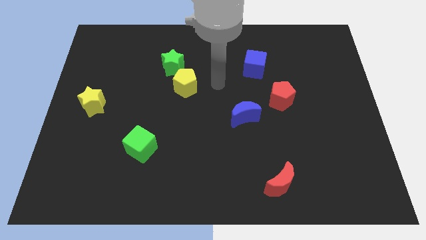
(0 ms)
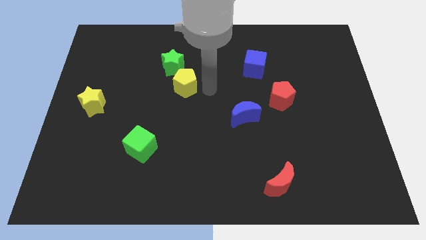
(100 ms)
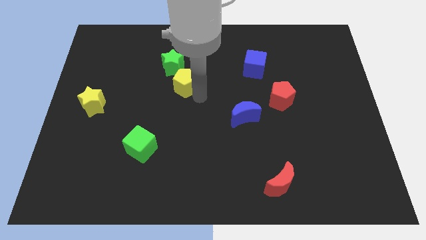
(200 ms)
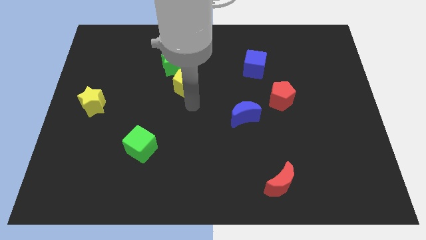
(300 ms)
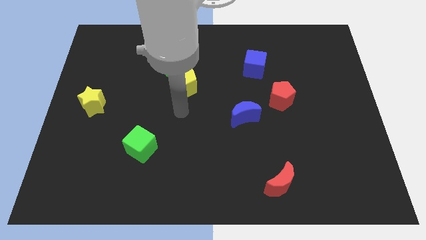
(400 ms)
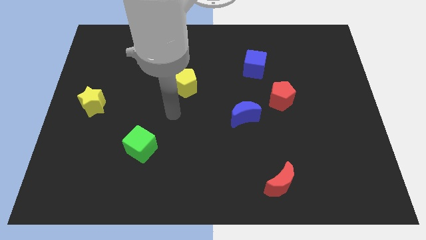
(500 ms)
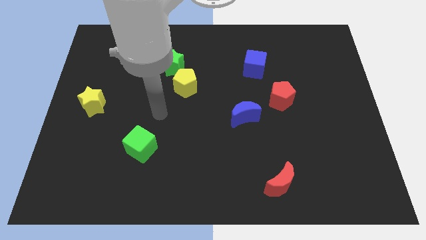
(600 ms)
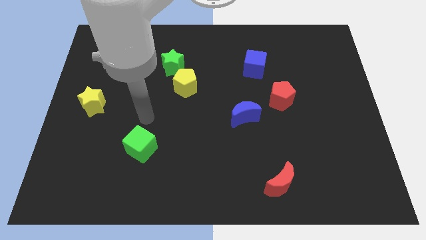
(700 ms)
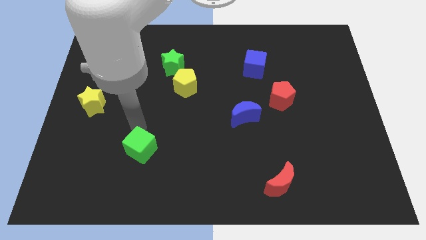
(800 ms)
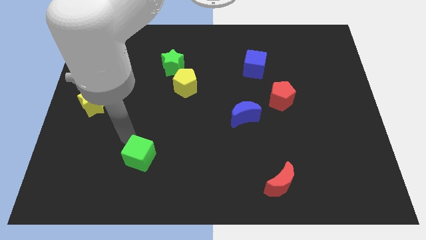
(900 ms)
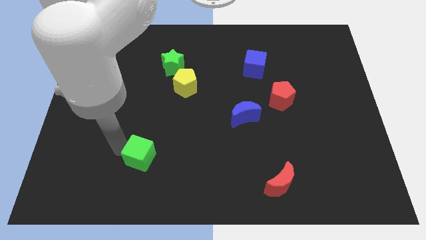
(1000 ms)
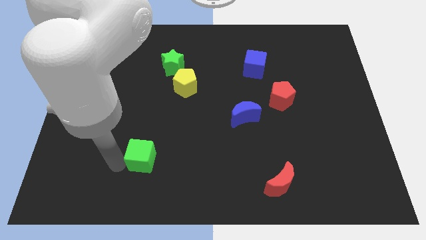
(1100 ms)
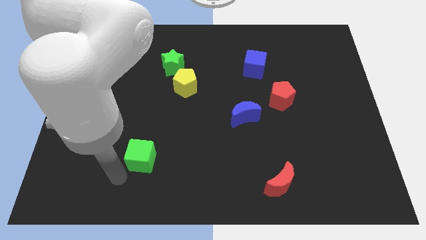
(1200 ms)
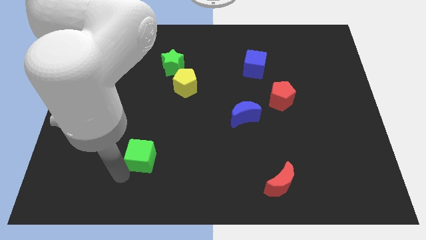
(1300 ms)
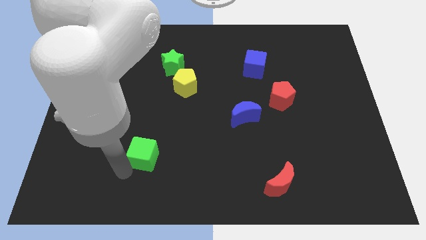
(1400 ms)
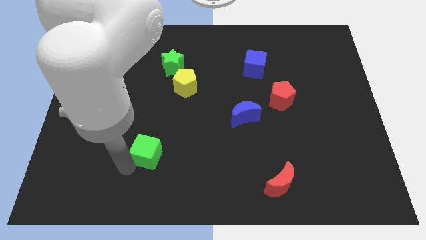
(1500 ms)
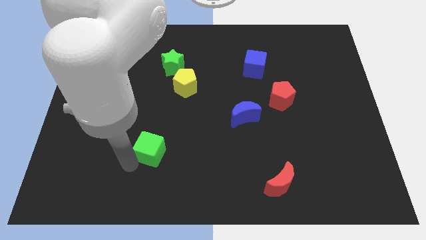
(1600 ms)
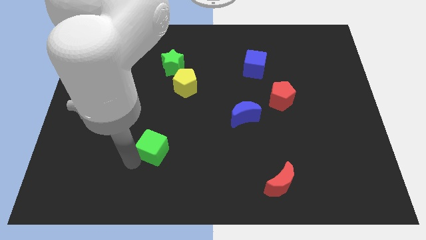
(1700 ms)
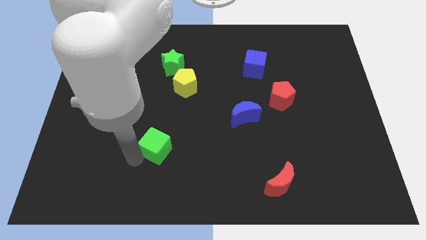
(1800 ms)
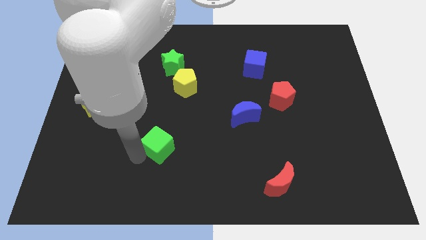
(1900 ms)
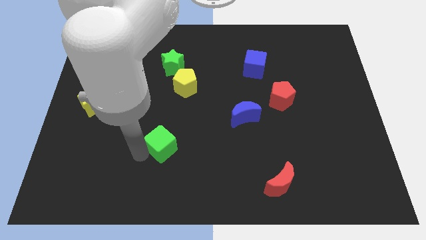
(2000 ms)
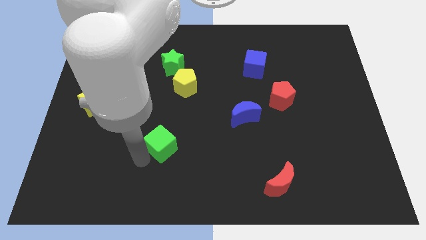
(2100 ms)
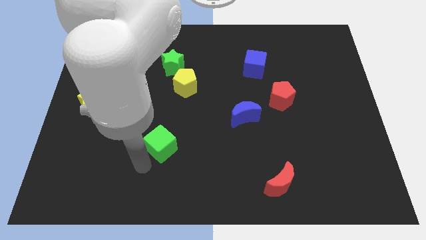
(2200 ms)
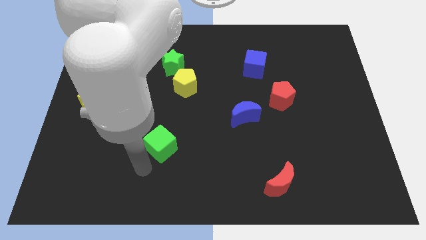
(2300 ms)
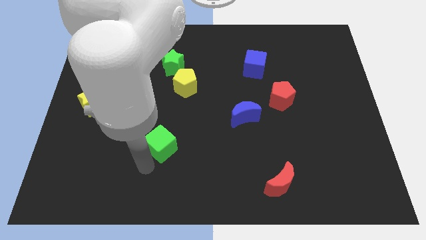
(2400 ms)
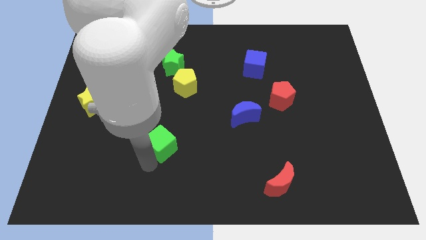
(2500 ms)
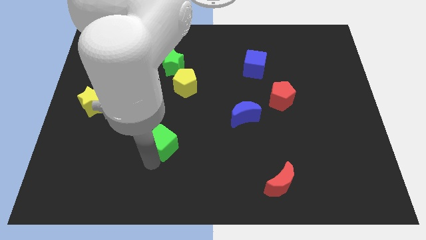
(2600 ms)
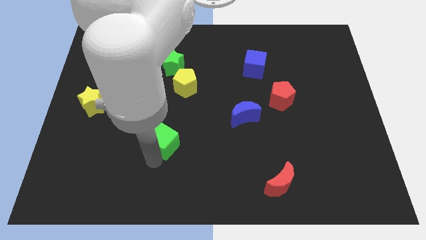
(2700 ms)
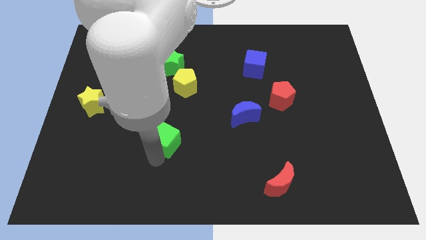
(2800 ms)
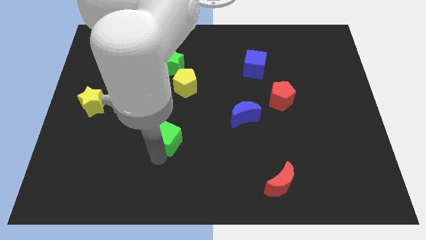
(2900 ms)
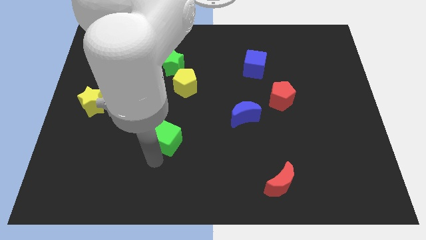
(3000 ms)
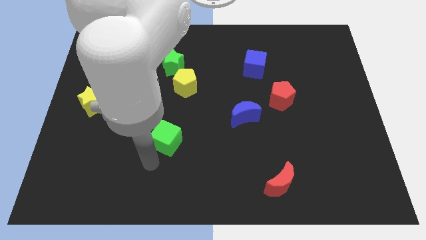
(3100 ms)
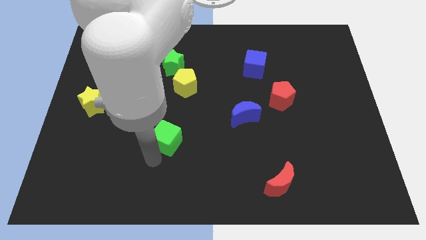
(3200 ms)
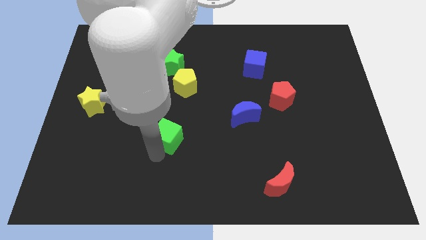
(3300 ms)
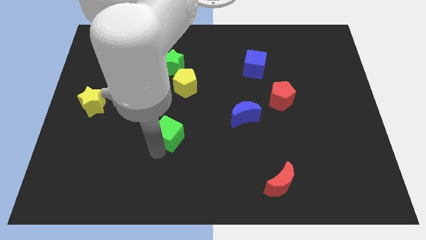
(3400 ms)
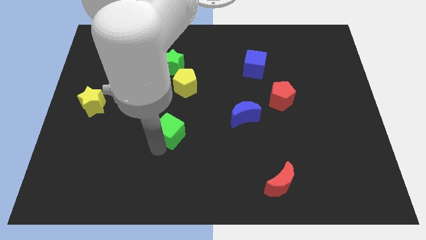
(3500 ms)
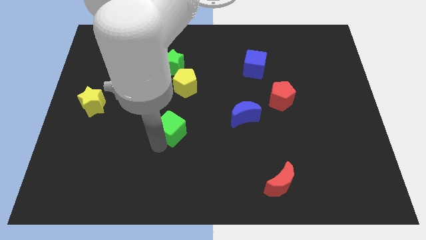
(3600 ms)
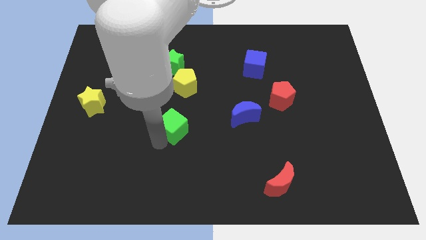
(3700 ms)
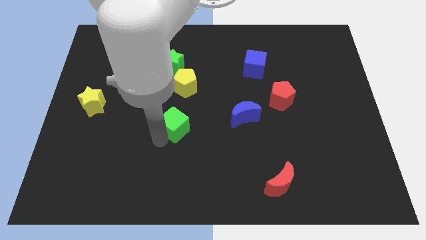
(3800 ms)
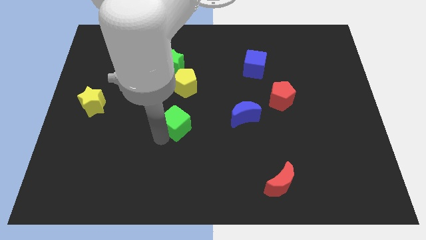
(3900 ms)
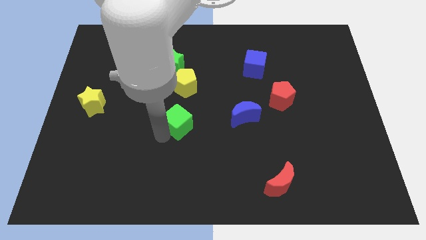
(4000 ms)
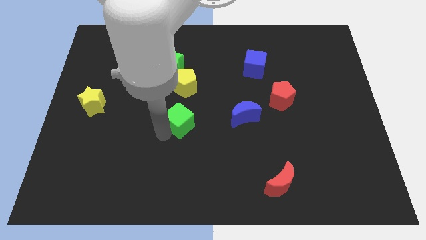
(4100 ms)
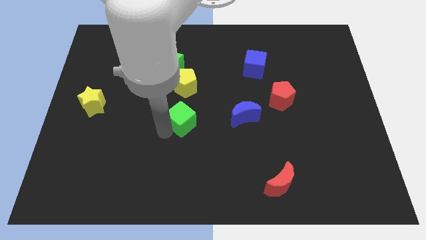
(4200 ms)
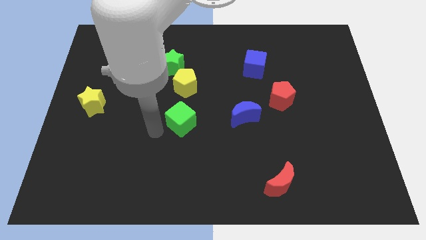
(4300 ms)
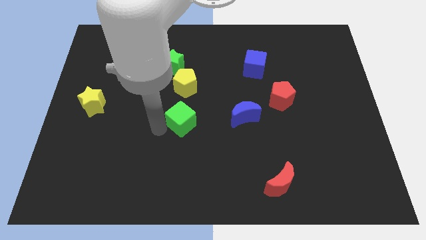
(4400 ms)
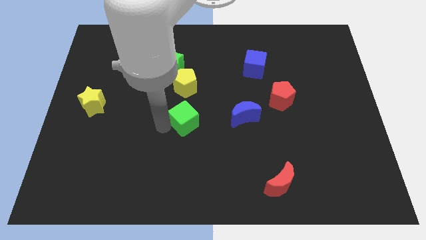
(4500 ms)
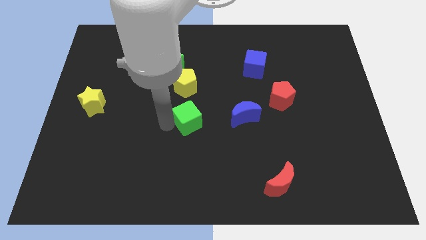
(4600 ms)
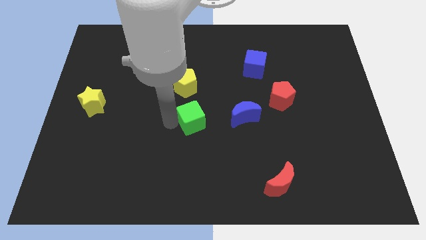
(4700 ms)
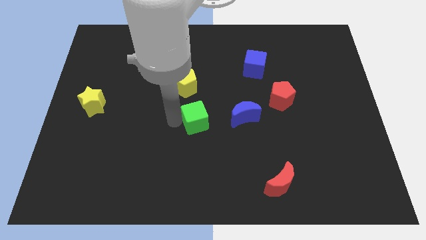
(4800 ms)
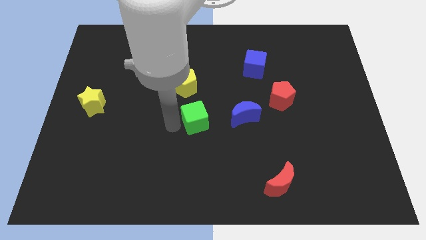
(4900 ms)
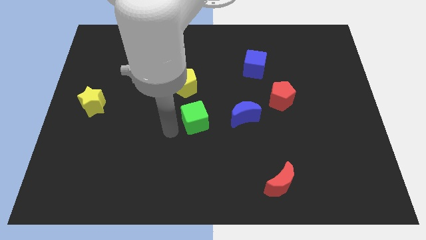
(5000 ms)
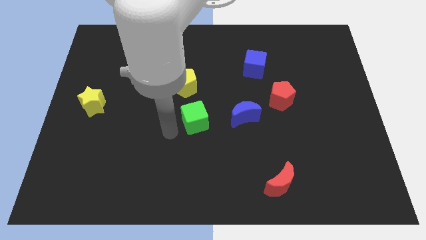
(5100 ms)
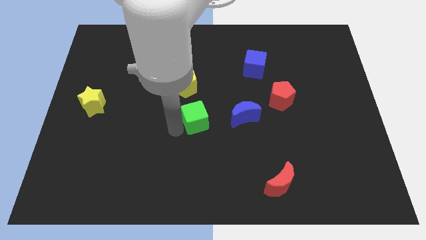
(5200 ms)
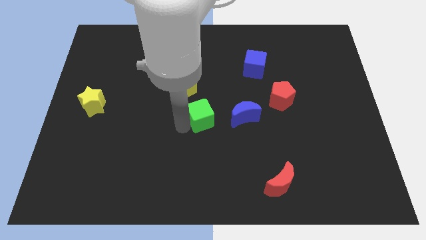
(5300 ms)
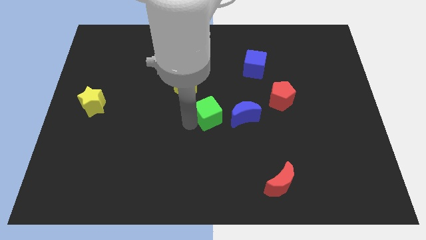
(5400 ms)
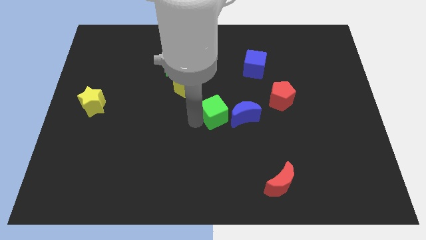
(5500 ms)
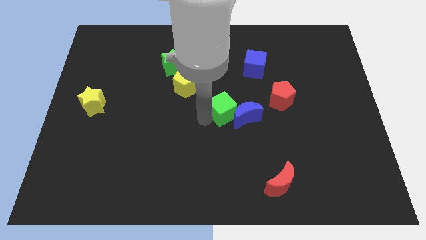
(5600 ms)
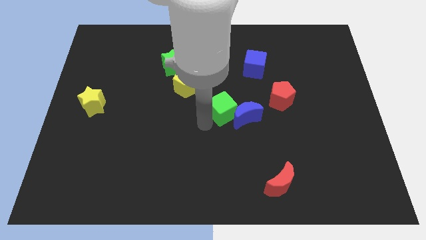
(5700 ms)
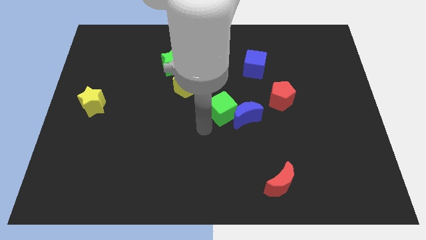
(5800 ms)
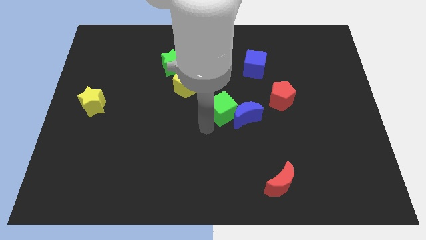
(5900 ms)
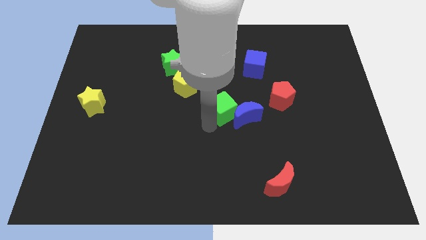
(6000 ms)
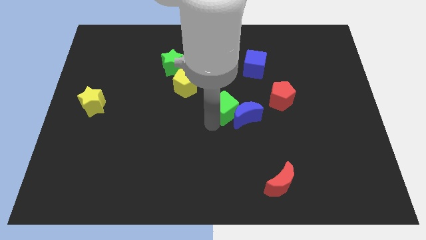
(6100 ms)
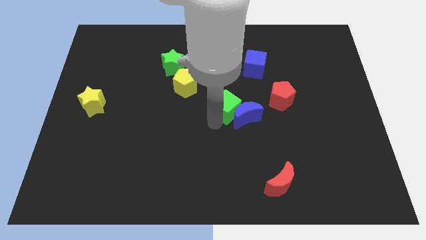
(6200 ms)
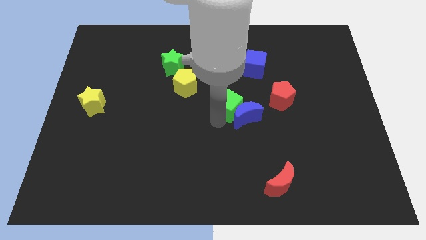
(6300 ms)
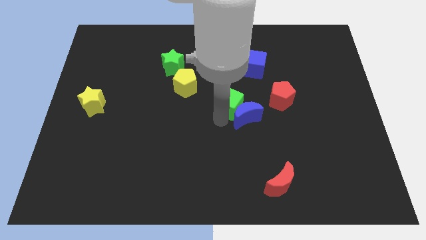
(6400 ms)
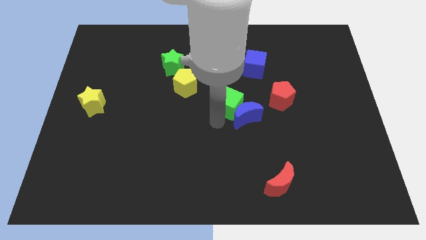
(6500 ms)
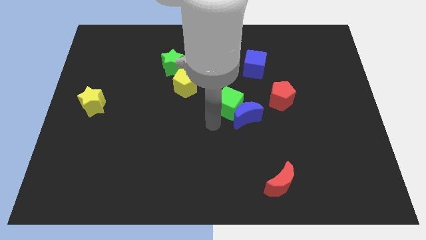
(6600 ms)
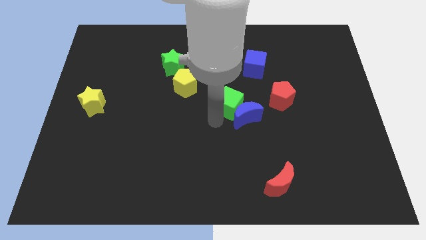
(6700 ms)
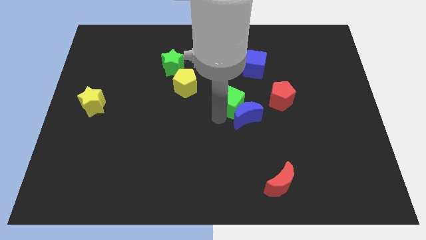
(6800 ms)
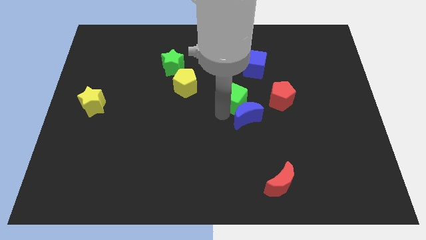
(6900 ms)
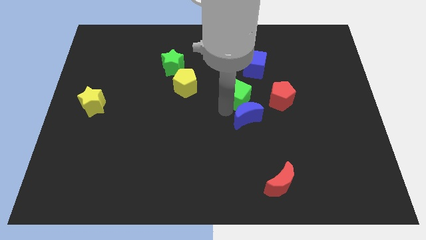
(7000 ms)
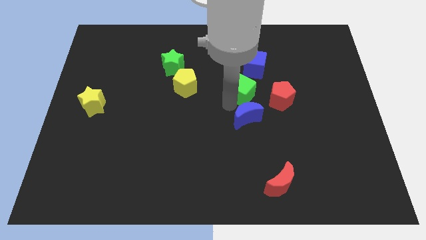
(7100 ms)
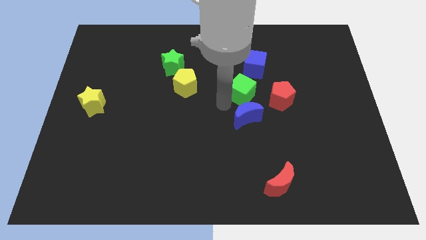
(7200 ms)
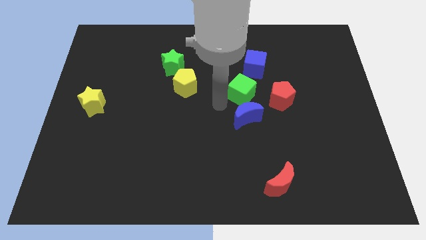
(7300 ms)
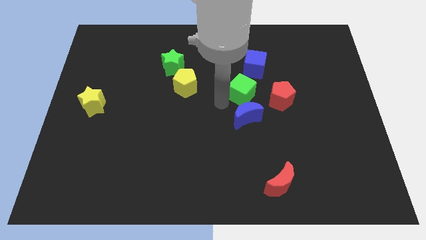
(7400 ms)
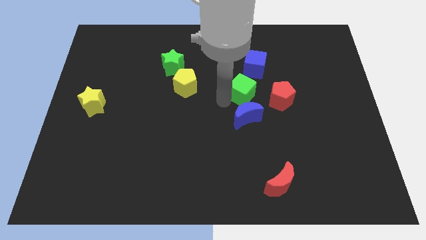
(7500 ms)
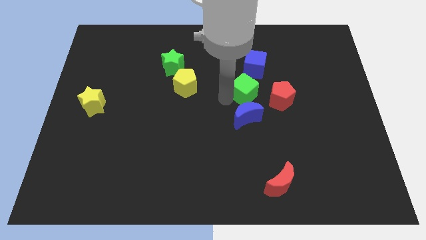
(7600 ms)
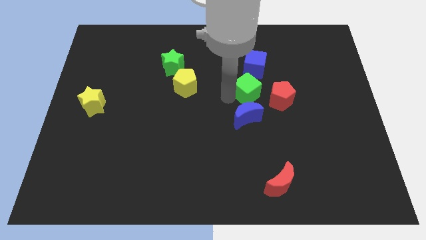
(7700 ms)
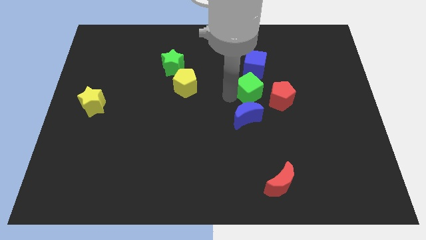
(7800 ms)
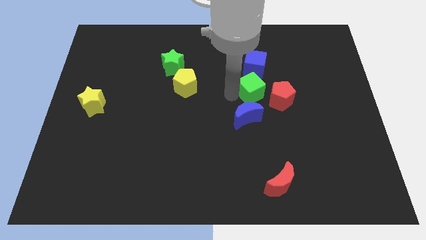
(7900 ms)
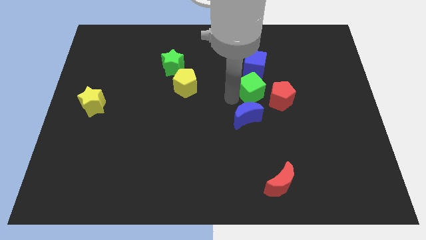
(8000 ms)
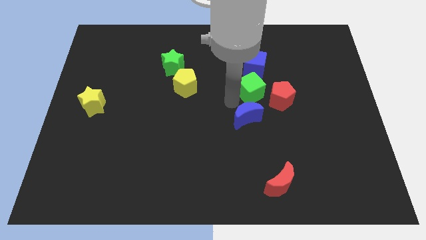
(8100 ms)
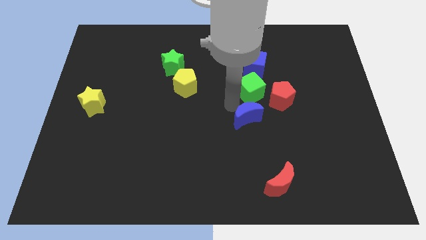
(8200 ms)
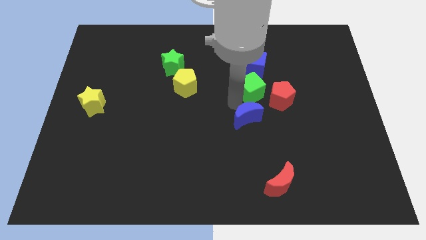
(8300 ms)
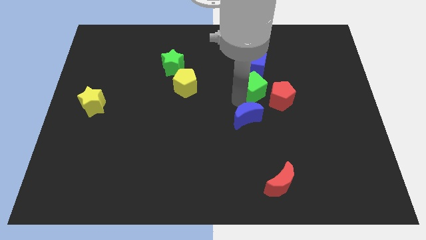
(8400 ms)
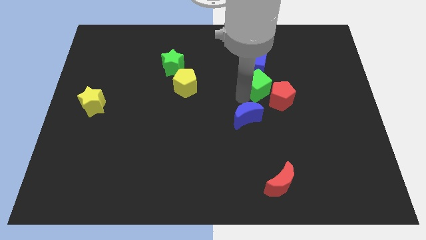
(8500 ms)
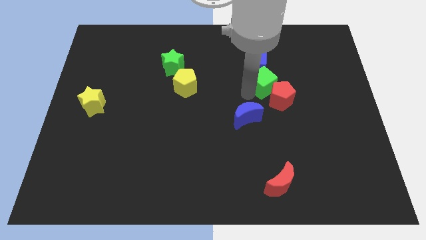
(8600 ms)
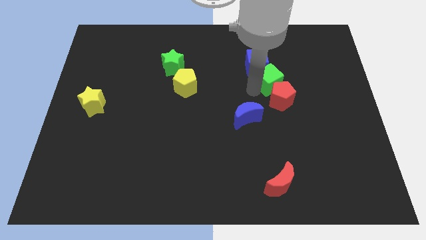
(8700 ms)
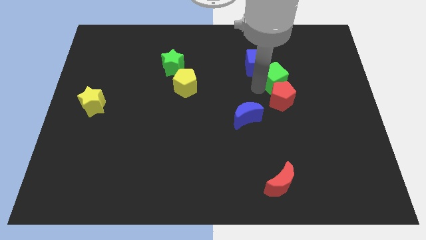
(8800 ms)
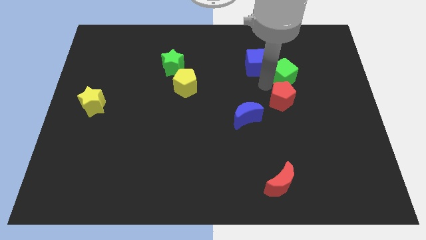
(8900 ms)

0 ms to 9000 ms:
push the green cube to the right of the blue cube
